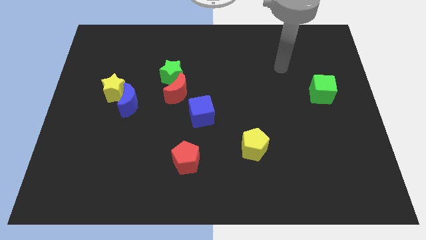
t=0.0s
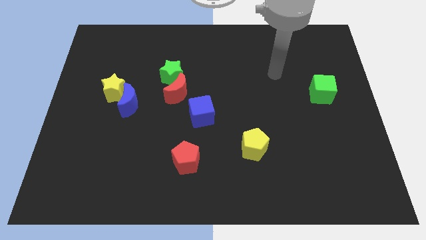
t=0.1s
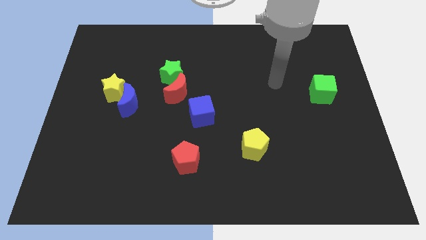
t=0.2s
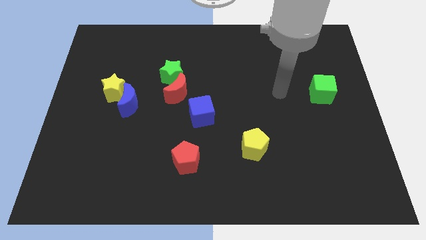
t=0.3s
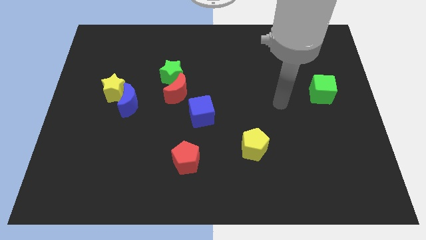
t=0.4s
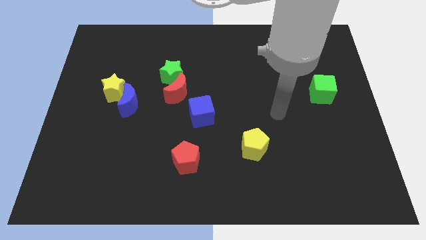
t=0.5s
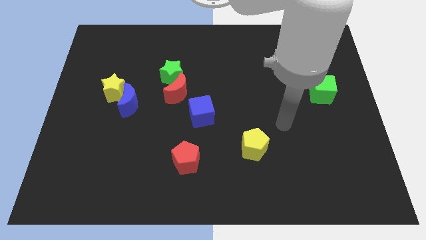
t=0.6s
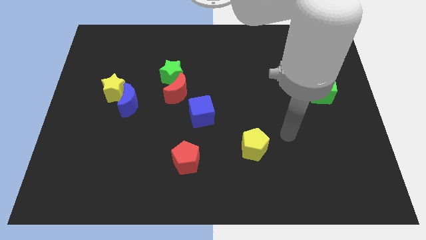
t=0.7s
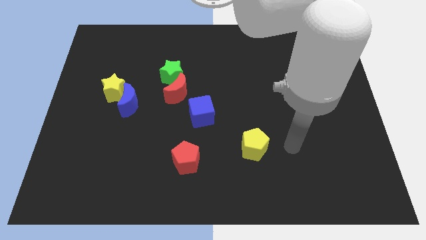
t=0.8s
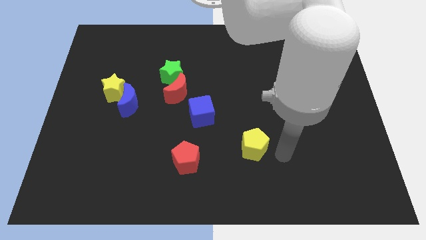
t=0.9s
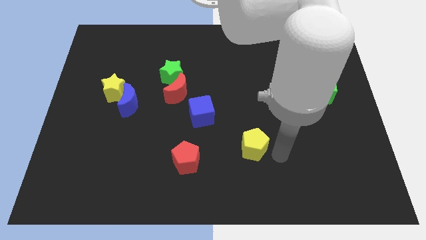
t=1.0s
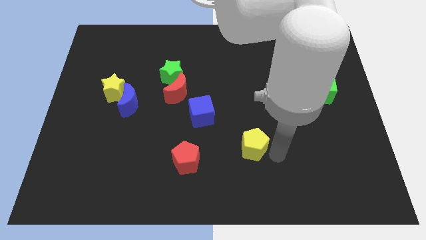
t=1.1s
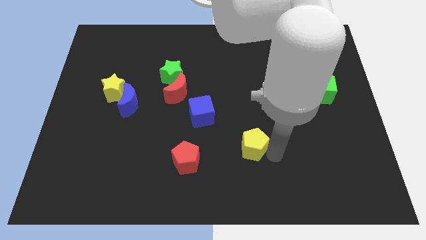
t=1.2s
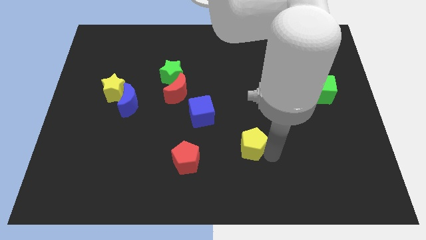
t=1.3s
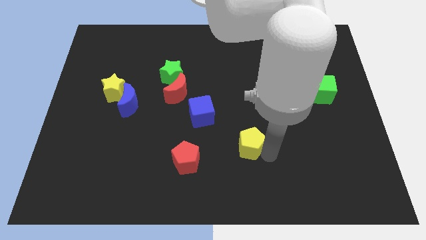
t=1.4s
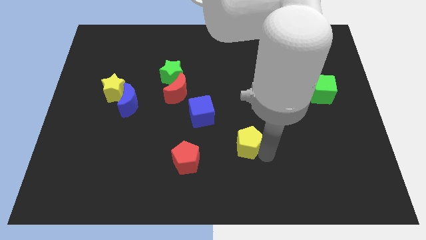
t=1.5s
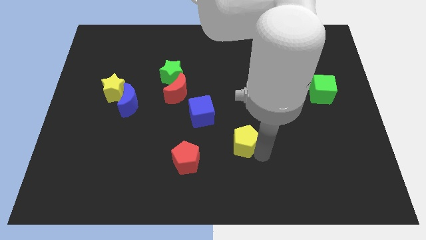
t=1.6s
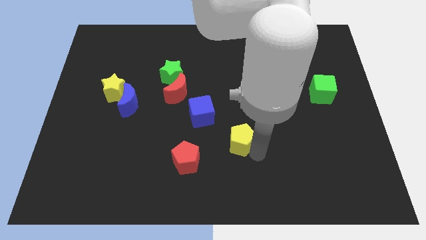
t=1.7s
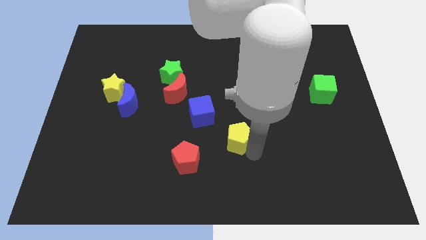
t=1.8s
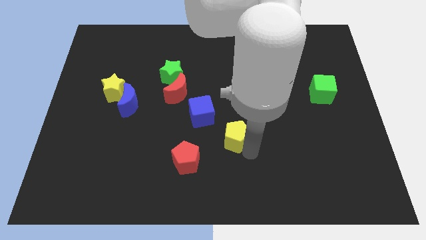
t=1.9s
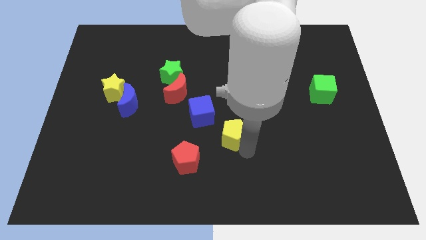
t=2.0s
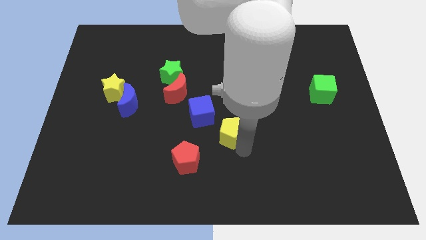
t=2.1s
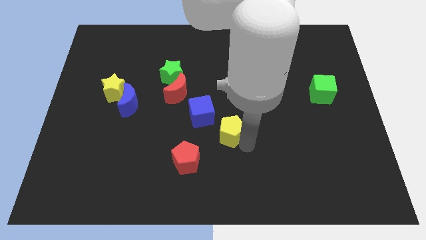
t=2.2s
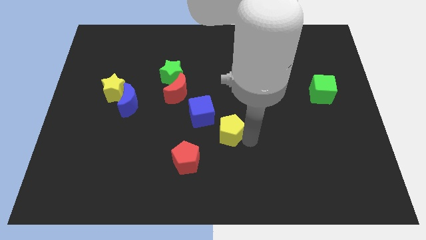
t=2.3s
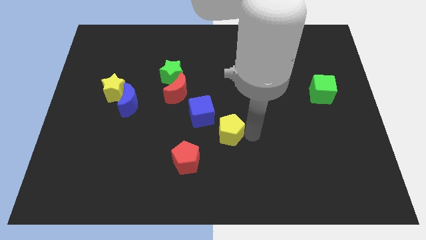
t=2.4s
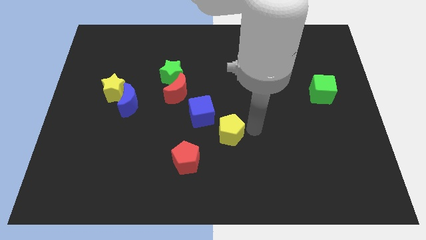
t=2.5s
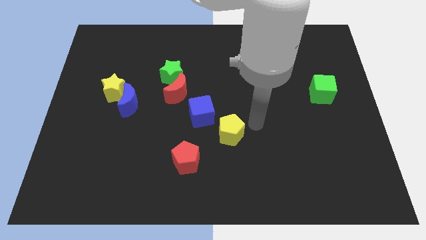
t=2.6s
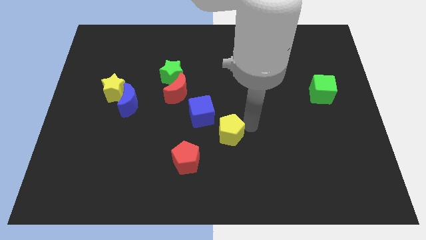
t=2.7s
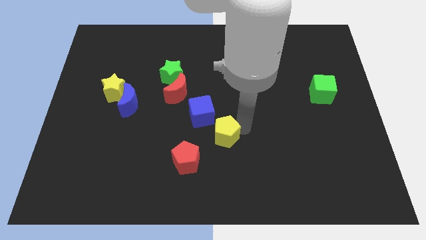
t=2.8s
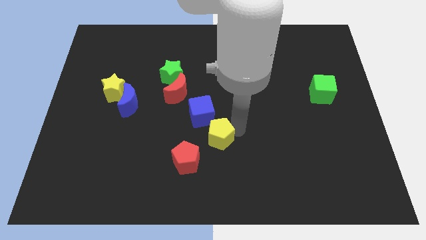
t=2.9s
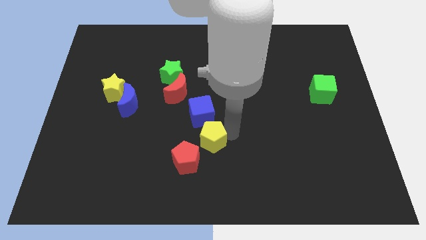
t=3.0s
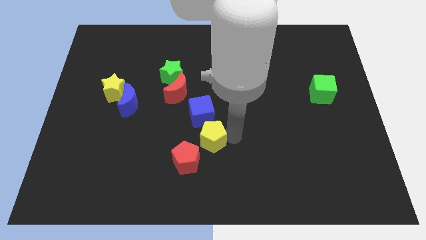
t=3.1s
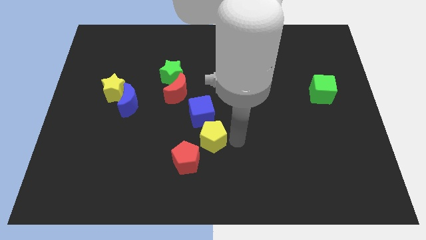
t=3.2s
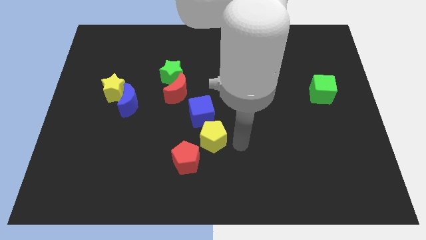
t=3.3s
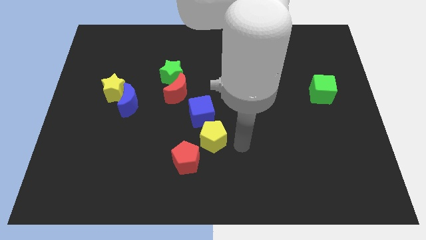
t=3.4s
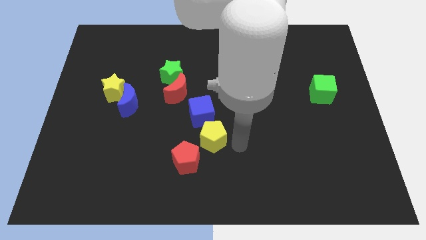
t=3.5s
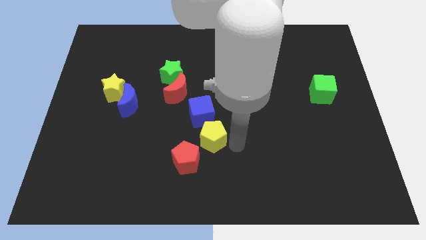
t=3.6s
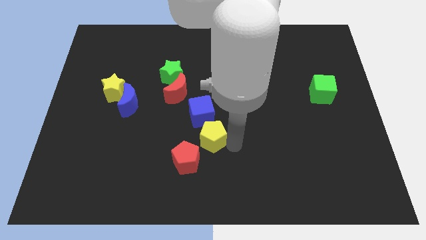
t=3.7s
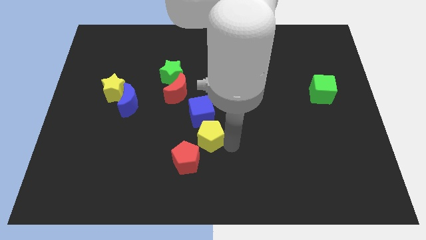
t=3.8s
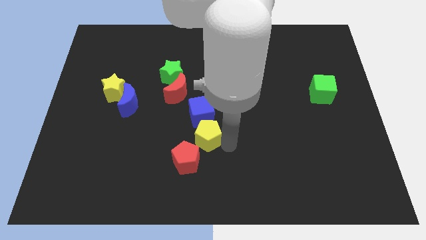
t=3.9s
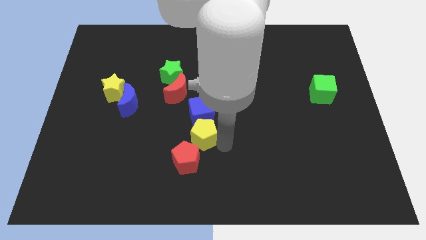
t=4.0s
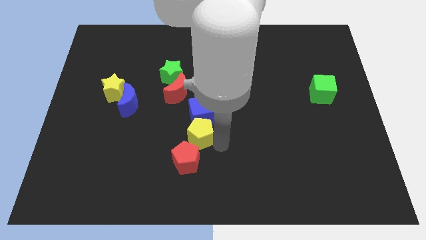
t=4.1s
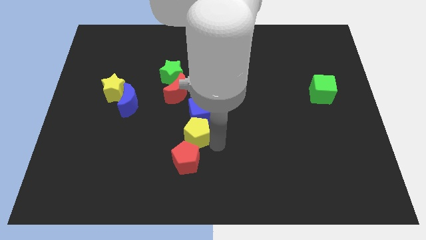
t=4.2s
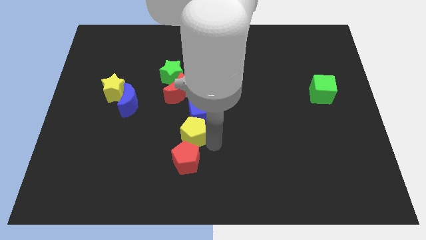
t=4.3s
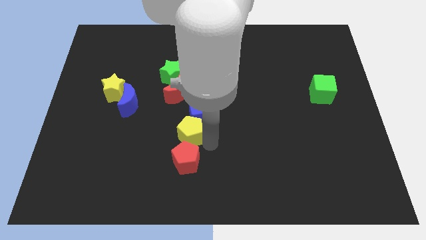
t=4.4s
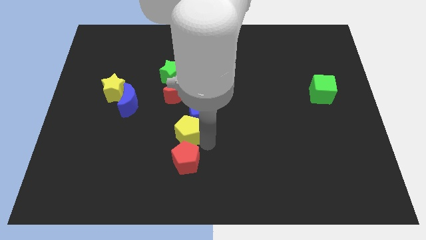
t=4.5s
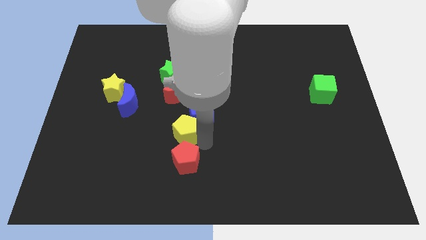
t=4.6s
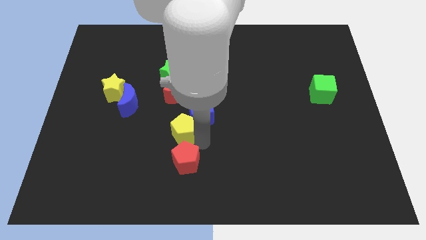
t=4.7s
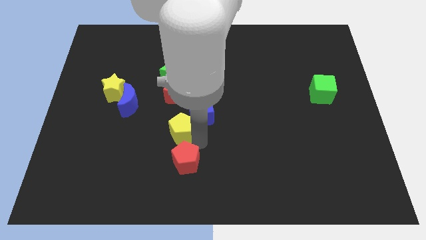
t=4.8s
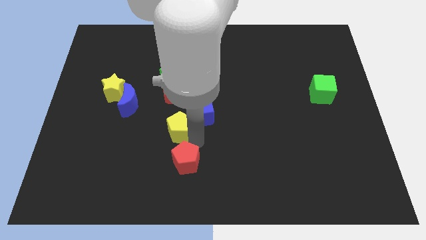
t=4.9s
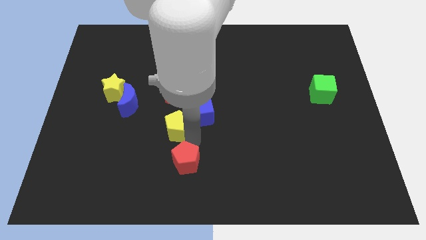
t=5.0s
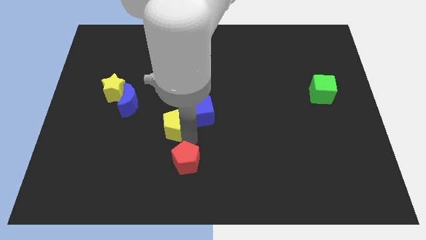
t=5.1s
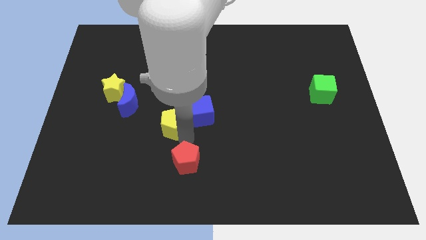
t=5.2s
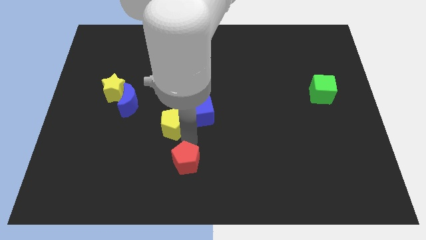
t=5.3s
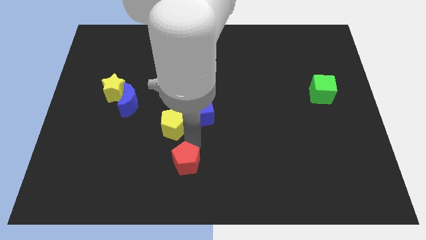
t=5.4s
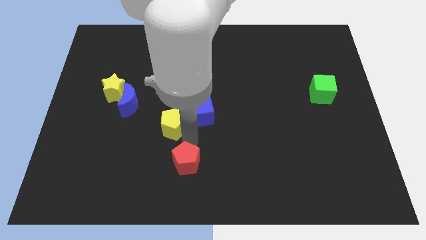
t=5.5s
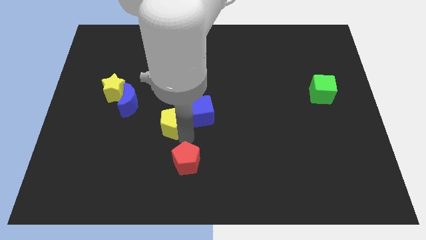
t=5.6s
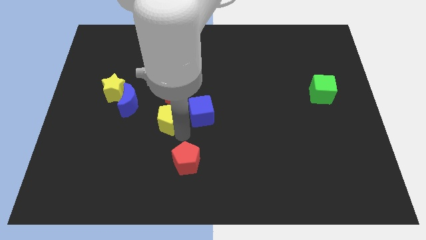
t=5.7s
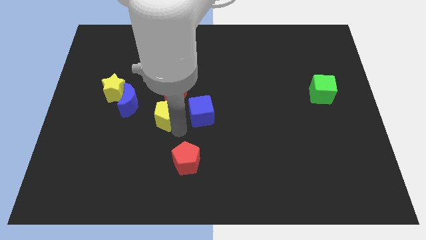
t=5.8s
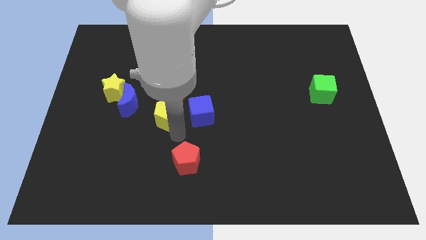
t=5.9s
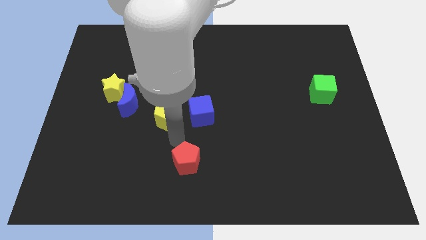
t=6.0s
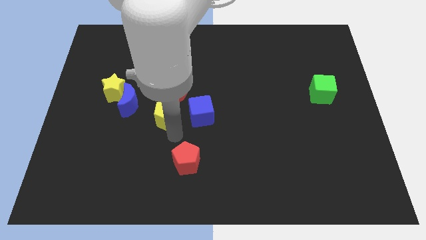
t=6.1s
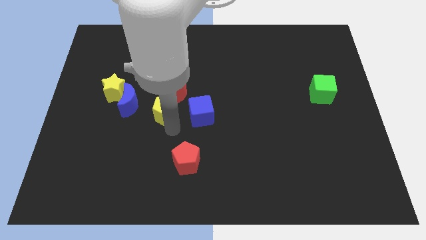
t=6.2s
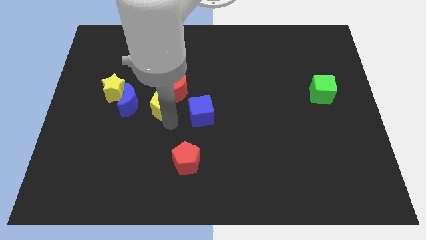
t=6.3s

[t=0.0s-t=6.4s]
push the yellow pentagon diagonally upwards and to the left

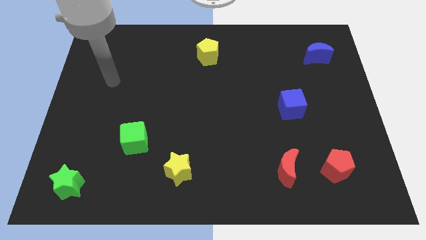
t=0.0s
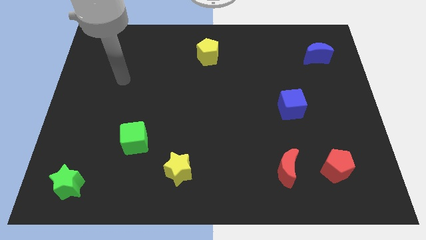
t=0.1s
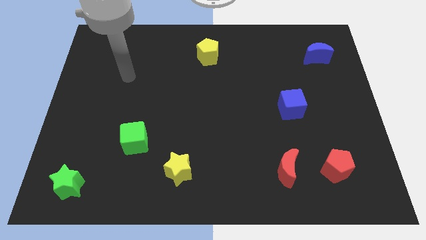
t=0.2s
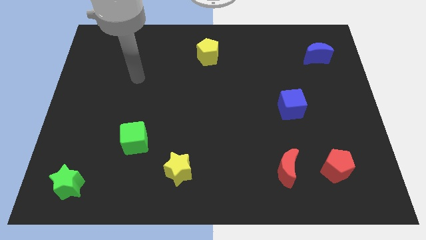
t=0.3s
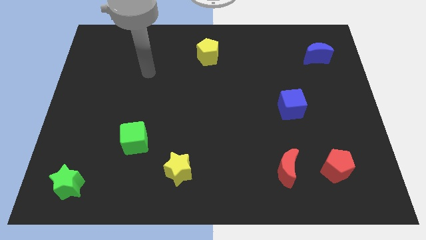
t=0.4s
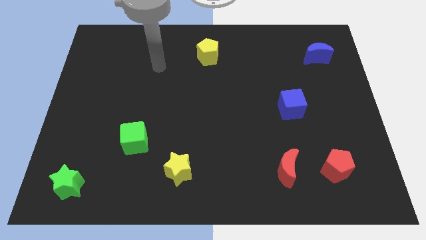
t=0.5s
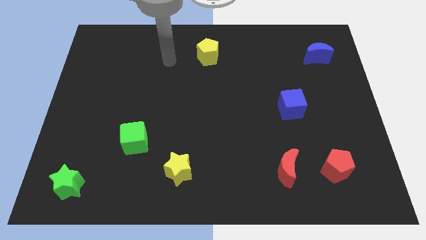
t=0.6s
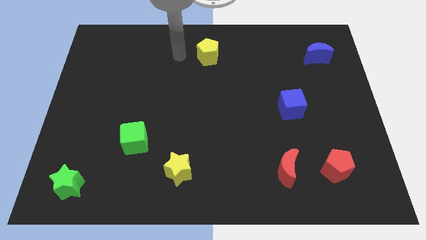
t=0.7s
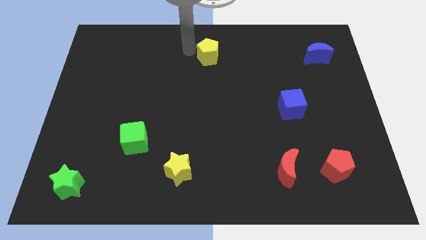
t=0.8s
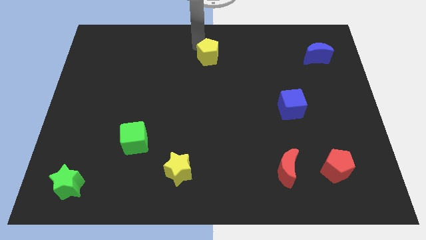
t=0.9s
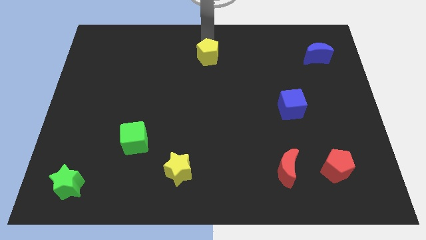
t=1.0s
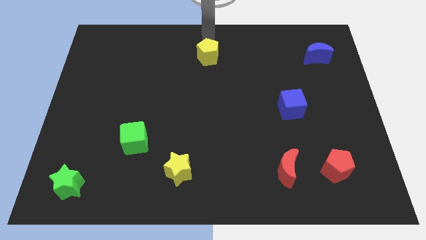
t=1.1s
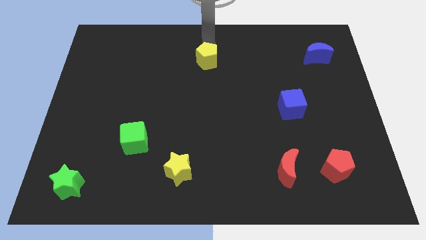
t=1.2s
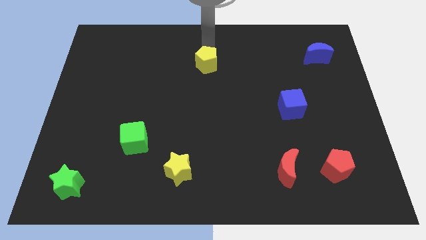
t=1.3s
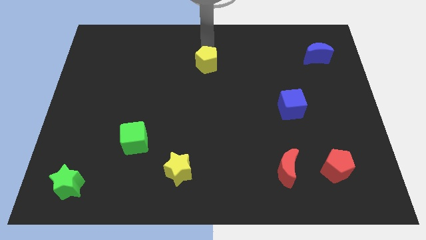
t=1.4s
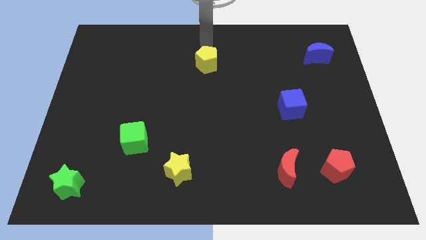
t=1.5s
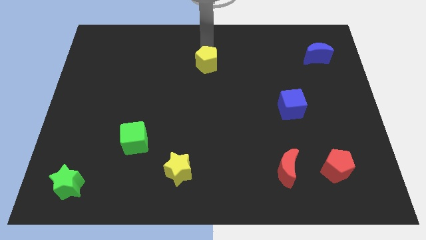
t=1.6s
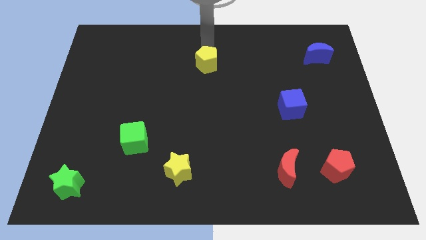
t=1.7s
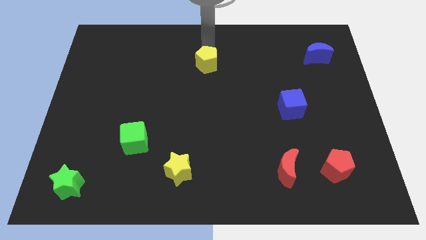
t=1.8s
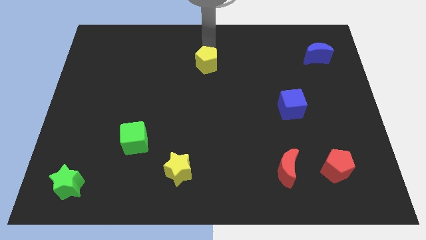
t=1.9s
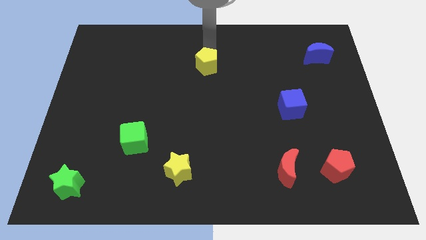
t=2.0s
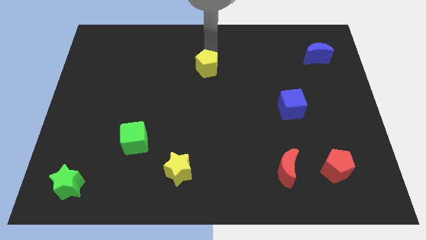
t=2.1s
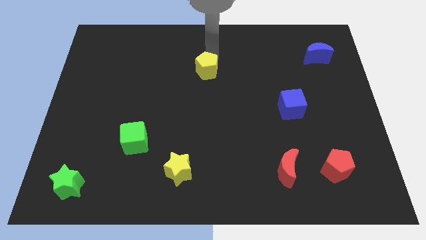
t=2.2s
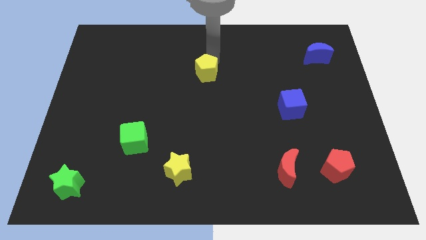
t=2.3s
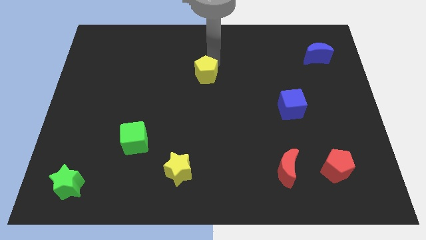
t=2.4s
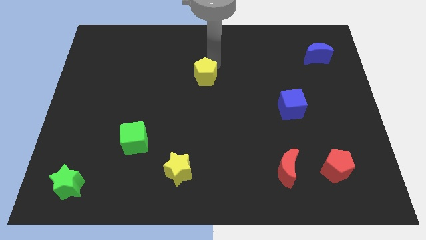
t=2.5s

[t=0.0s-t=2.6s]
slide the yellow pentagon somewhat down
